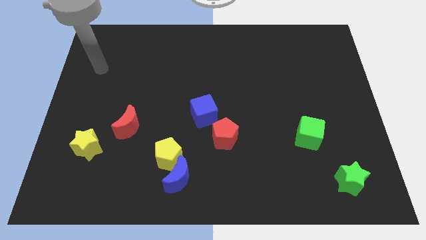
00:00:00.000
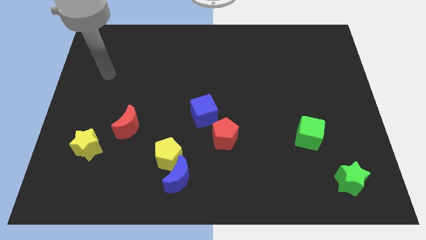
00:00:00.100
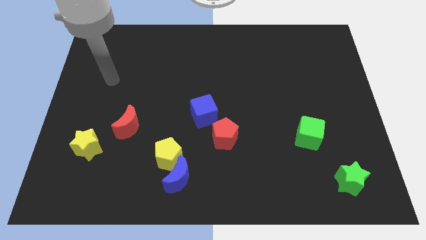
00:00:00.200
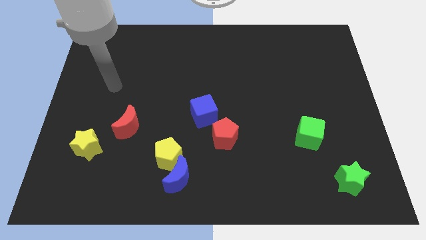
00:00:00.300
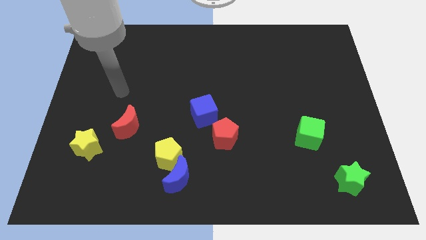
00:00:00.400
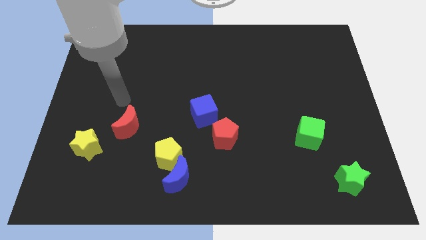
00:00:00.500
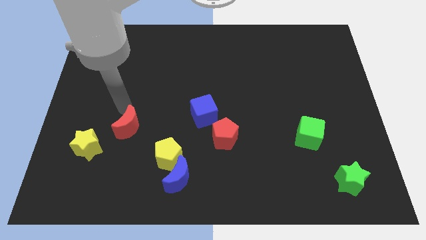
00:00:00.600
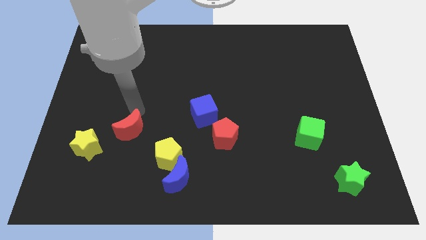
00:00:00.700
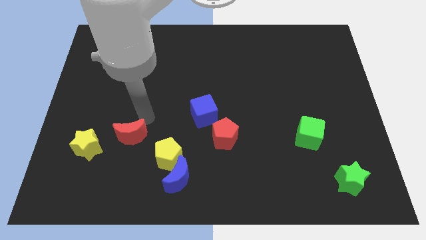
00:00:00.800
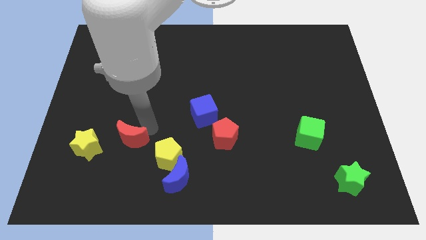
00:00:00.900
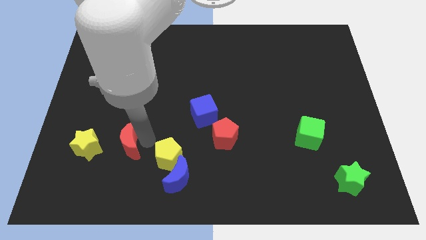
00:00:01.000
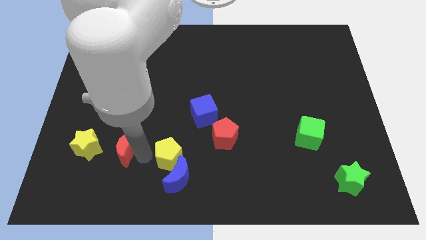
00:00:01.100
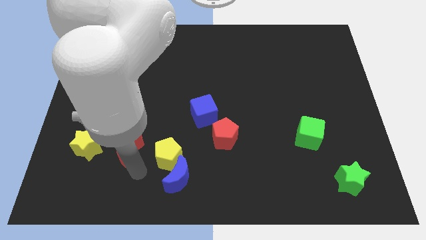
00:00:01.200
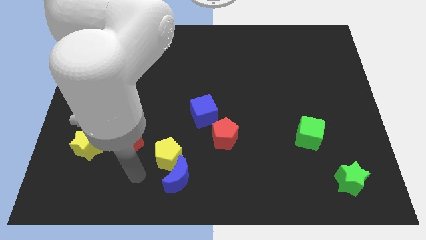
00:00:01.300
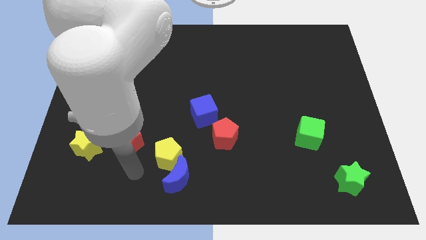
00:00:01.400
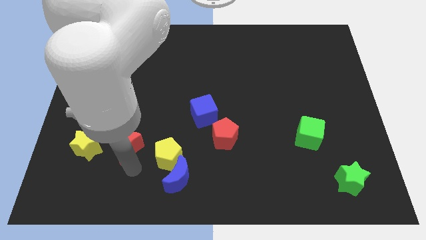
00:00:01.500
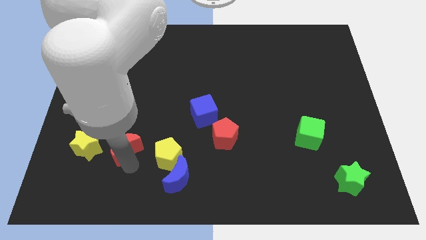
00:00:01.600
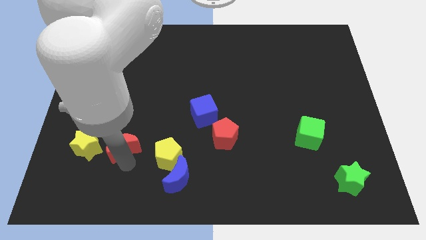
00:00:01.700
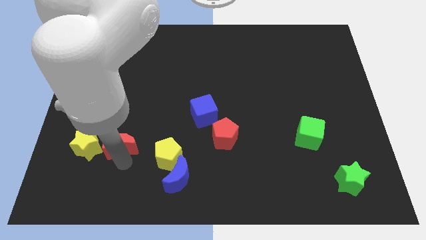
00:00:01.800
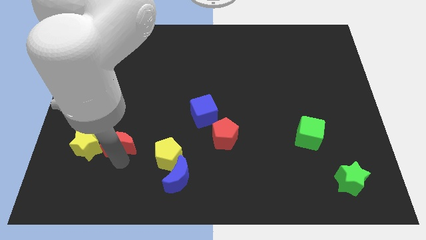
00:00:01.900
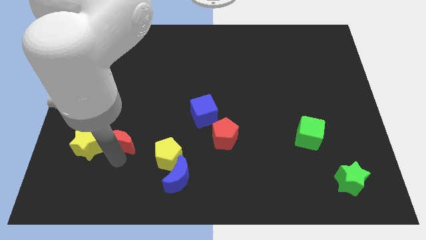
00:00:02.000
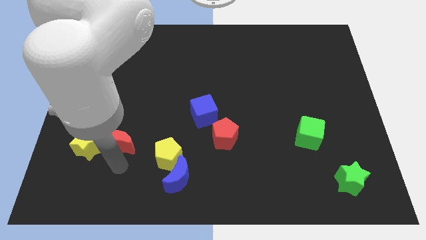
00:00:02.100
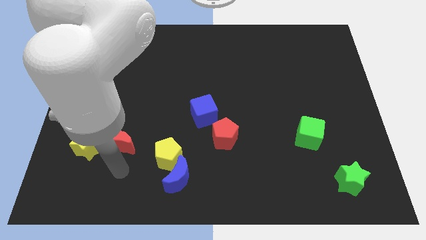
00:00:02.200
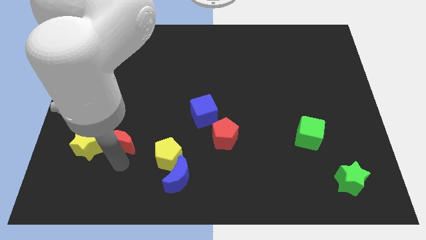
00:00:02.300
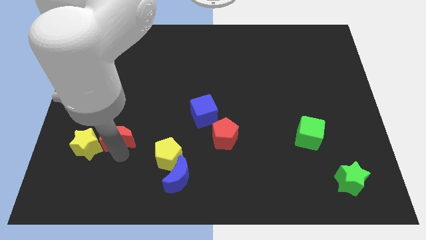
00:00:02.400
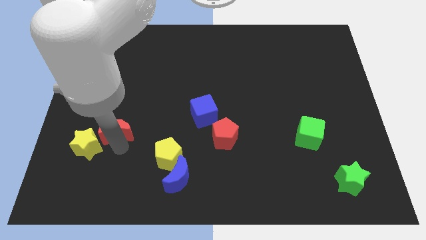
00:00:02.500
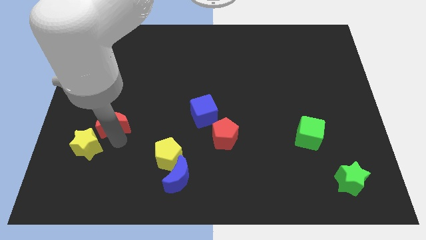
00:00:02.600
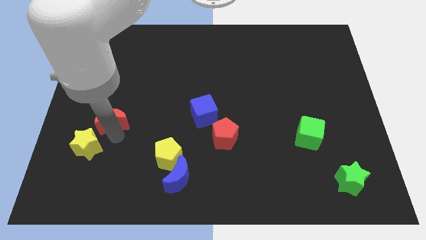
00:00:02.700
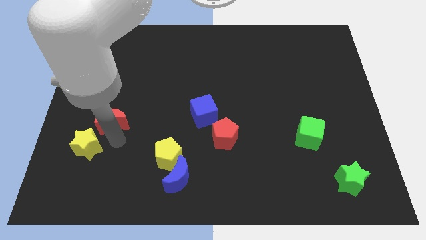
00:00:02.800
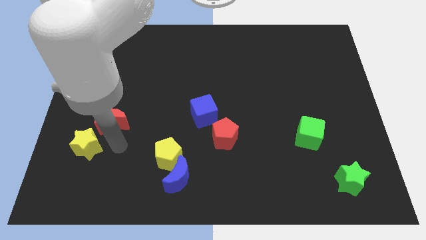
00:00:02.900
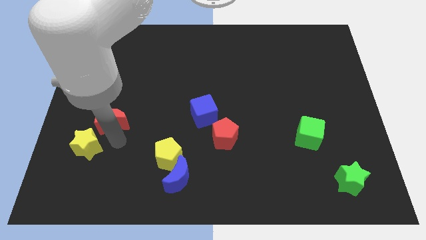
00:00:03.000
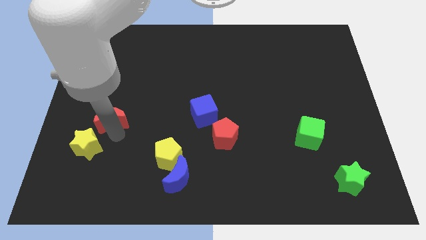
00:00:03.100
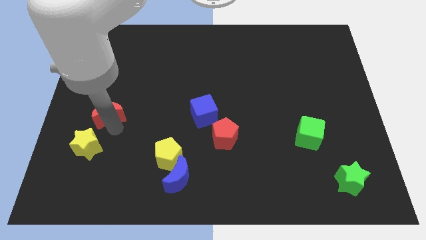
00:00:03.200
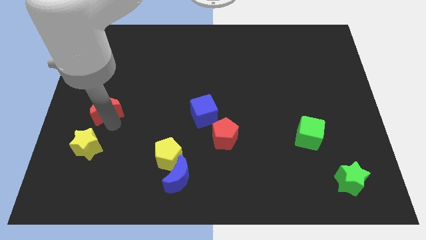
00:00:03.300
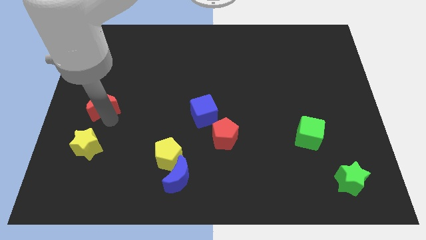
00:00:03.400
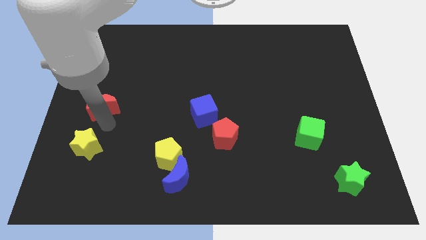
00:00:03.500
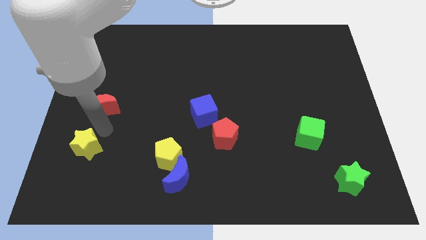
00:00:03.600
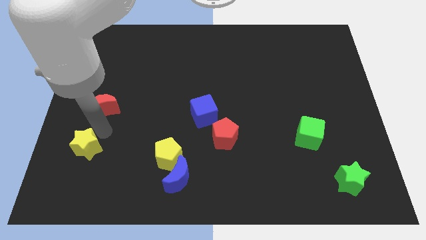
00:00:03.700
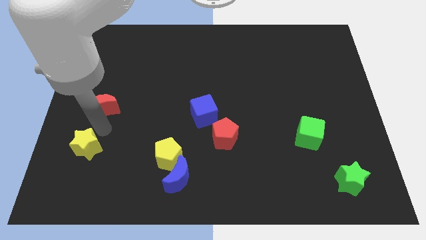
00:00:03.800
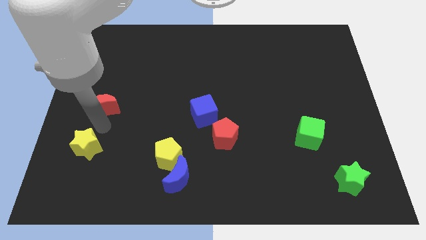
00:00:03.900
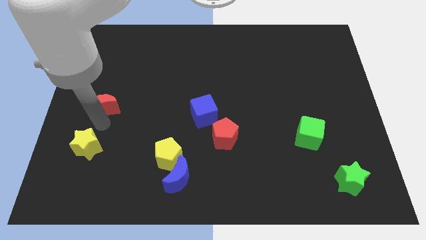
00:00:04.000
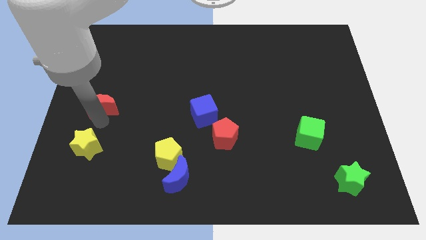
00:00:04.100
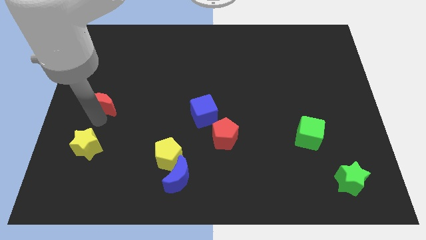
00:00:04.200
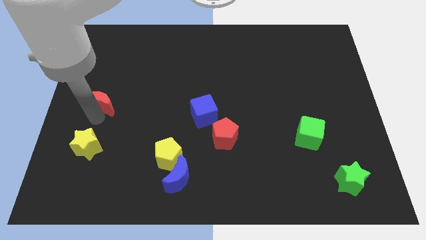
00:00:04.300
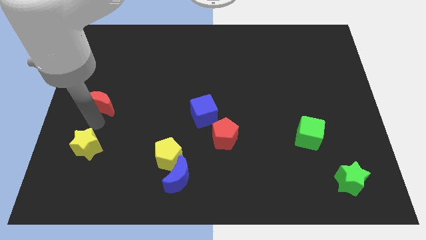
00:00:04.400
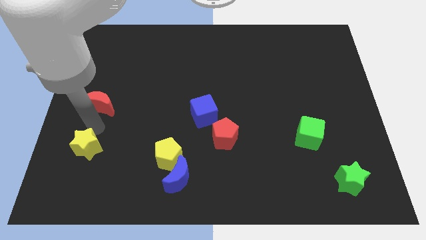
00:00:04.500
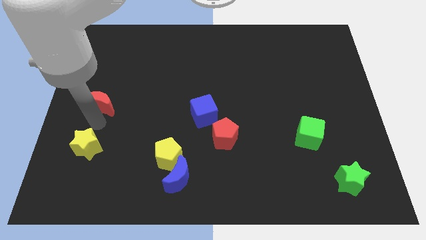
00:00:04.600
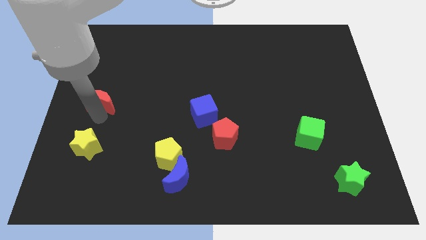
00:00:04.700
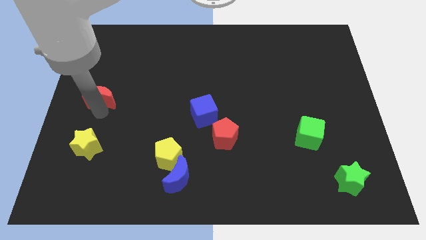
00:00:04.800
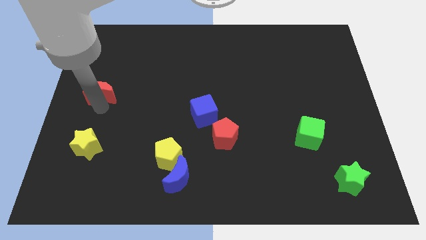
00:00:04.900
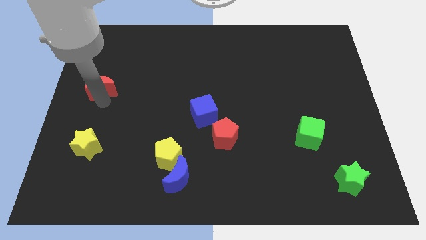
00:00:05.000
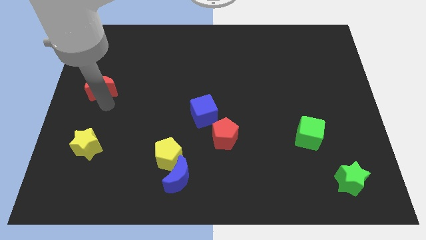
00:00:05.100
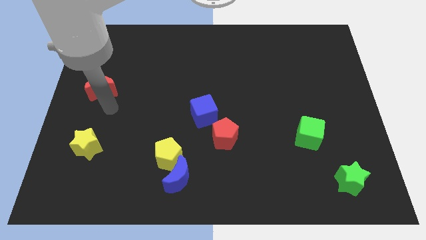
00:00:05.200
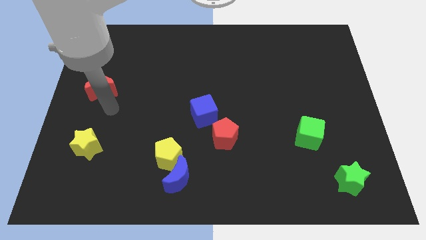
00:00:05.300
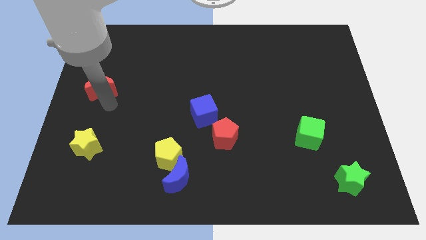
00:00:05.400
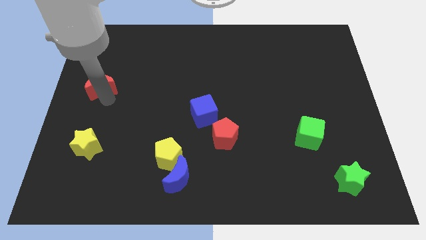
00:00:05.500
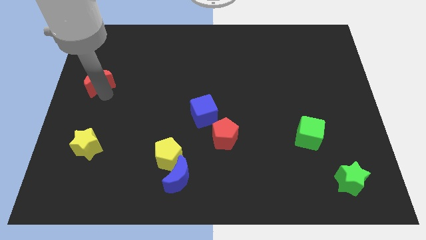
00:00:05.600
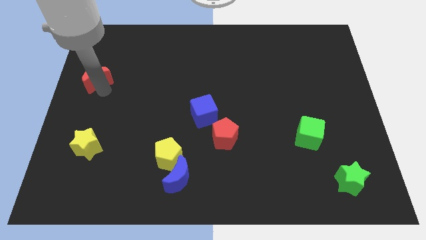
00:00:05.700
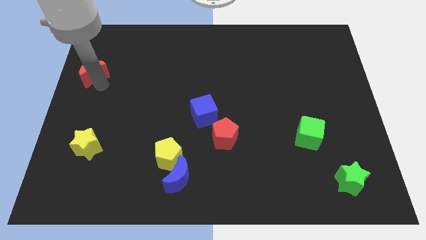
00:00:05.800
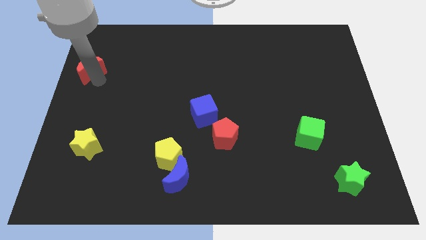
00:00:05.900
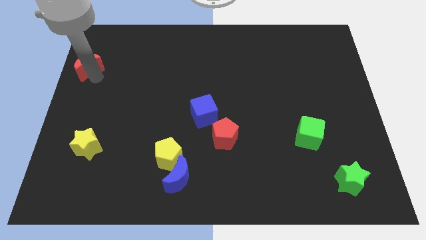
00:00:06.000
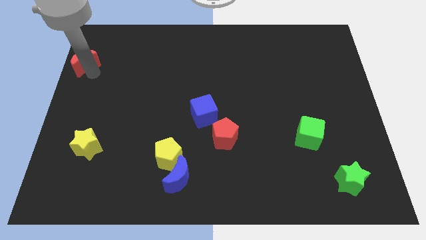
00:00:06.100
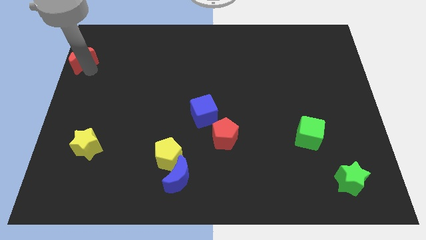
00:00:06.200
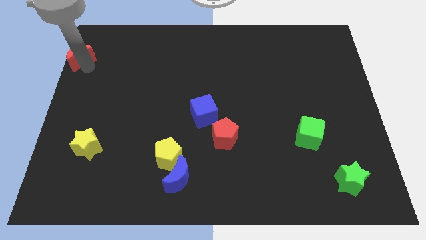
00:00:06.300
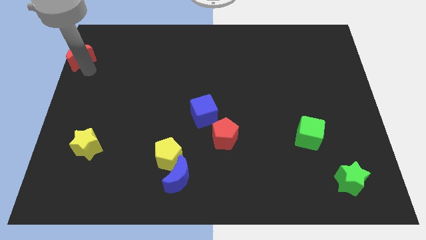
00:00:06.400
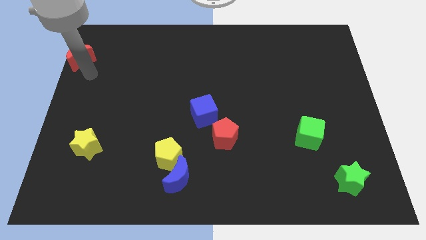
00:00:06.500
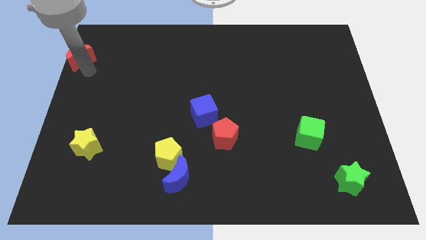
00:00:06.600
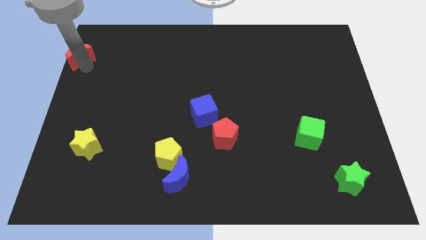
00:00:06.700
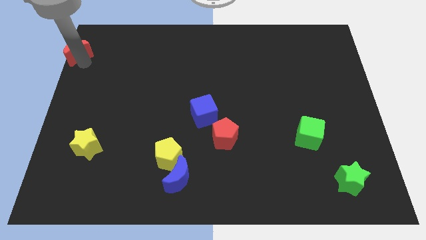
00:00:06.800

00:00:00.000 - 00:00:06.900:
push the red moon to the upper left corner
